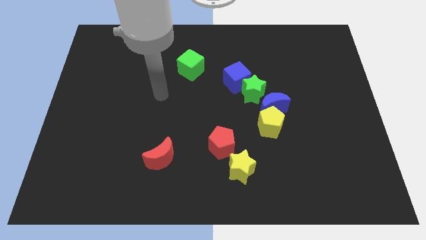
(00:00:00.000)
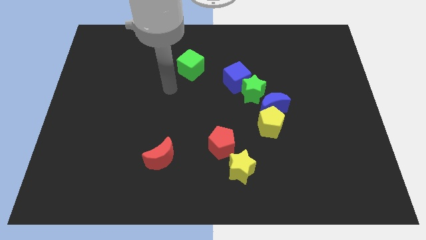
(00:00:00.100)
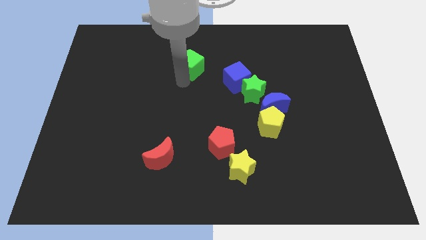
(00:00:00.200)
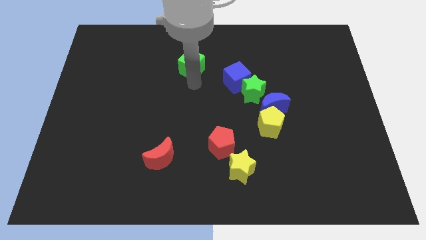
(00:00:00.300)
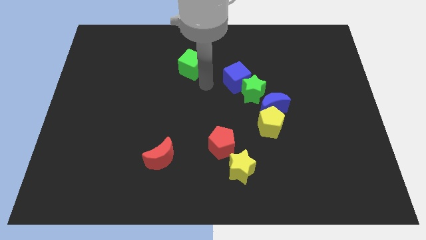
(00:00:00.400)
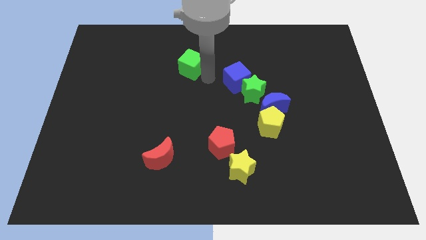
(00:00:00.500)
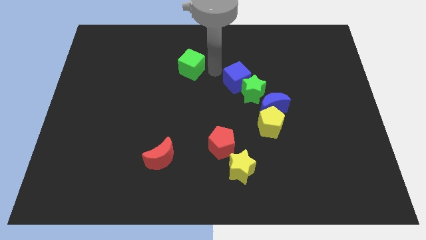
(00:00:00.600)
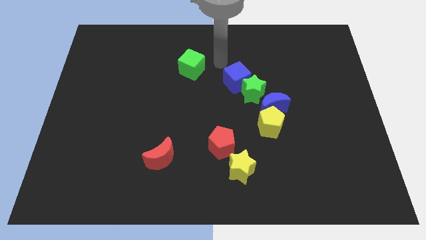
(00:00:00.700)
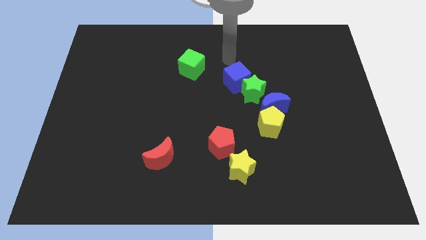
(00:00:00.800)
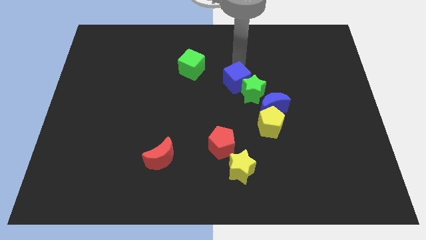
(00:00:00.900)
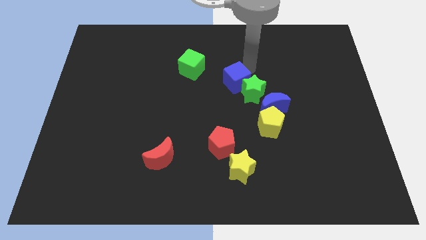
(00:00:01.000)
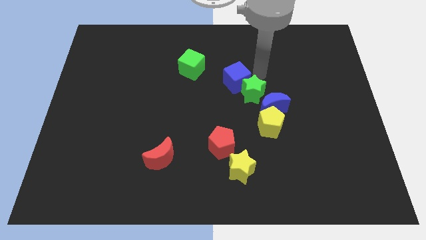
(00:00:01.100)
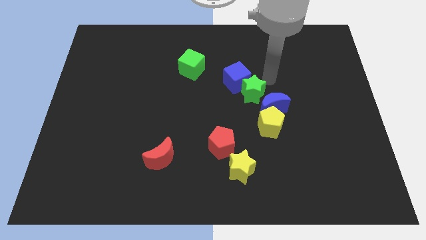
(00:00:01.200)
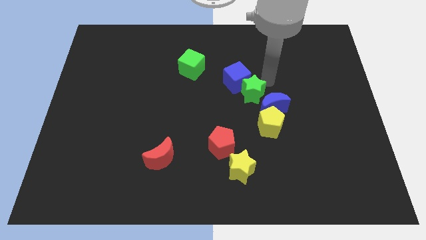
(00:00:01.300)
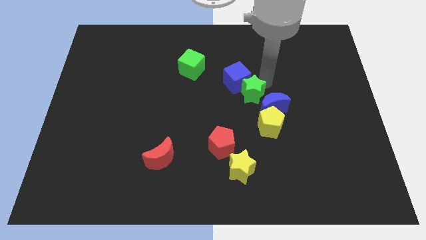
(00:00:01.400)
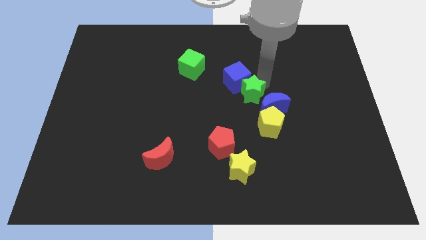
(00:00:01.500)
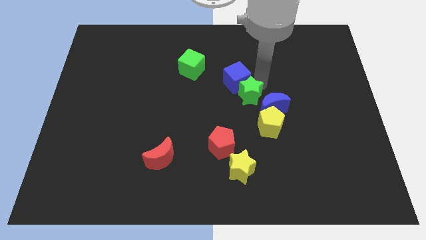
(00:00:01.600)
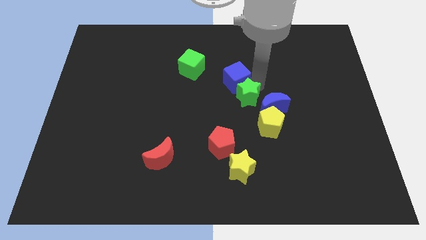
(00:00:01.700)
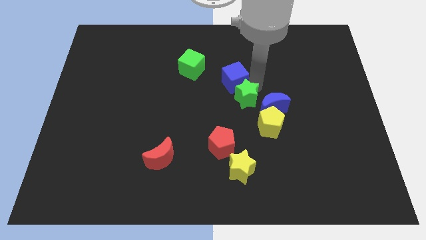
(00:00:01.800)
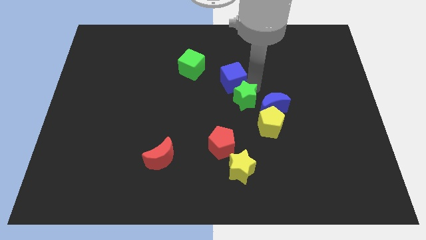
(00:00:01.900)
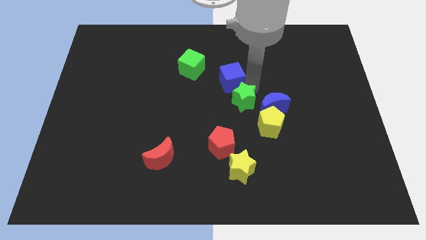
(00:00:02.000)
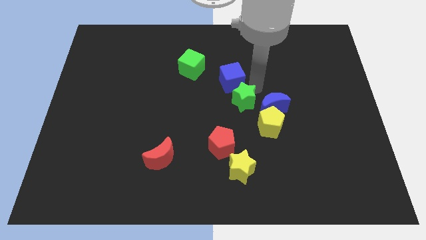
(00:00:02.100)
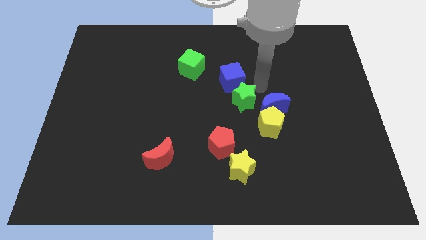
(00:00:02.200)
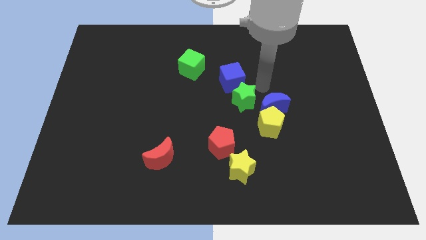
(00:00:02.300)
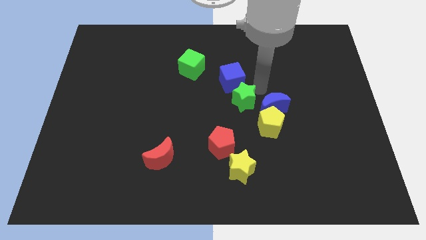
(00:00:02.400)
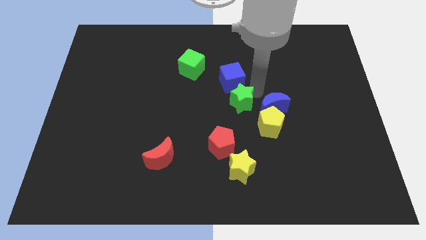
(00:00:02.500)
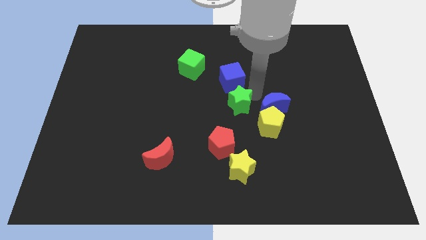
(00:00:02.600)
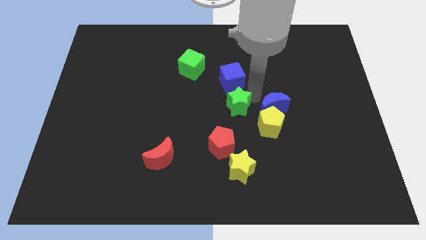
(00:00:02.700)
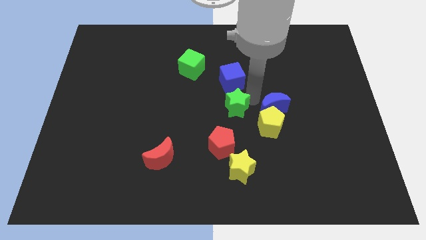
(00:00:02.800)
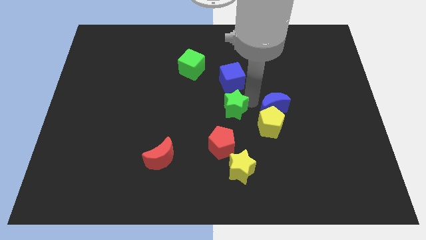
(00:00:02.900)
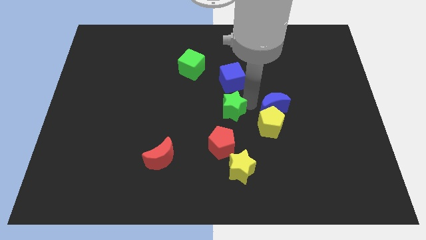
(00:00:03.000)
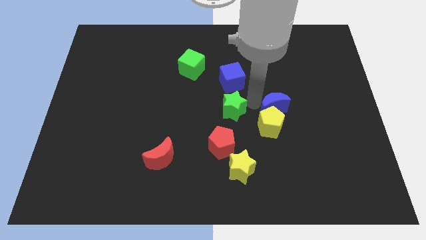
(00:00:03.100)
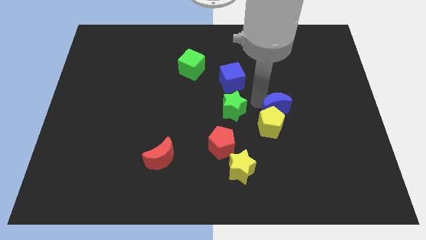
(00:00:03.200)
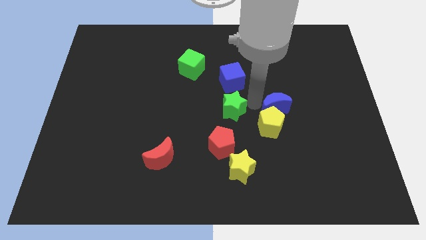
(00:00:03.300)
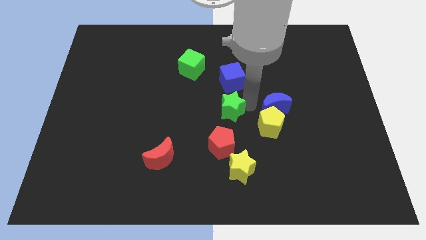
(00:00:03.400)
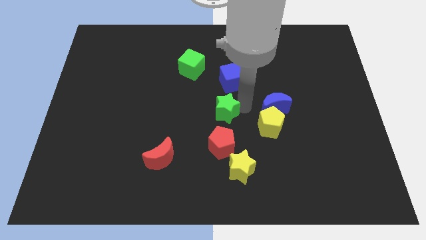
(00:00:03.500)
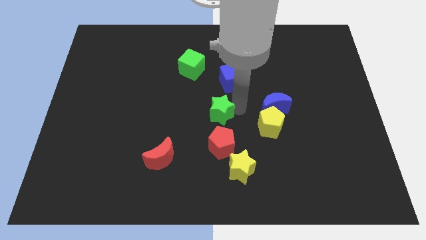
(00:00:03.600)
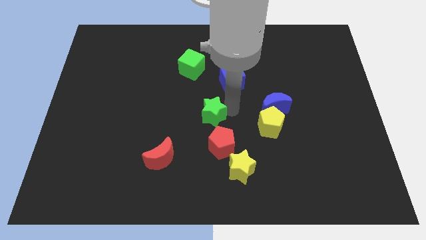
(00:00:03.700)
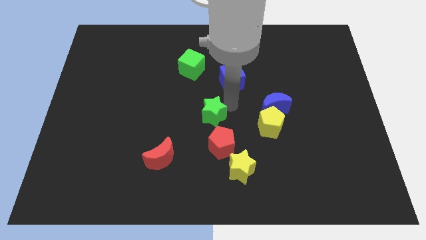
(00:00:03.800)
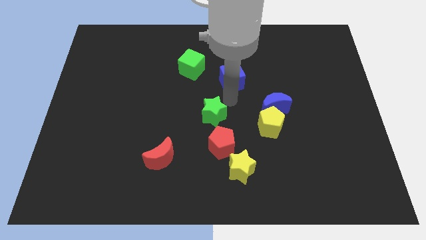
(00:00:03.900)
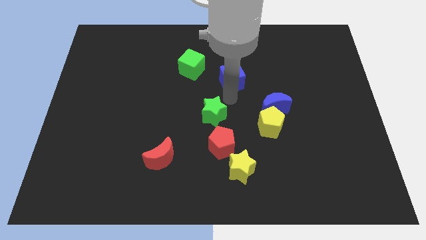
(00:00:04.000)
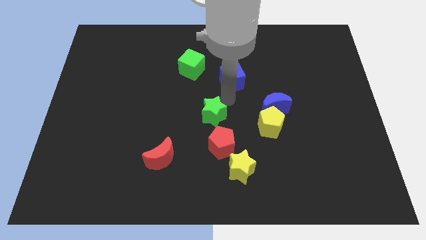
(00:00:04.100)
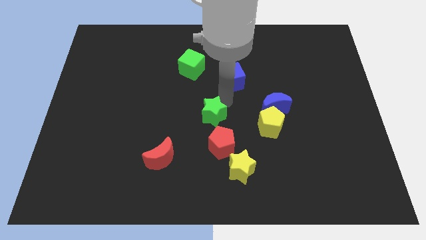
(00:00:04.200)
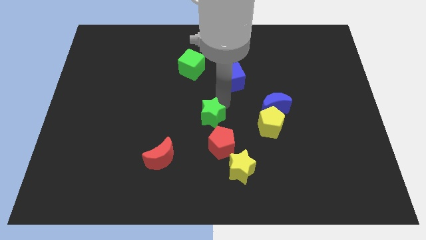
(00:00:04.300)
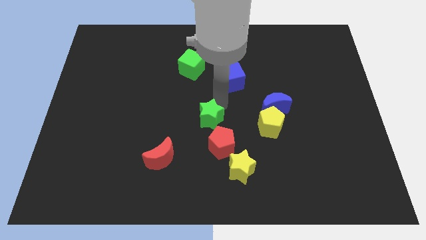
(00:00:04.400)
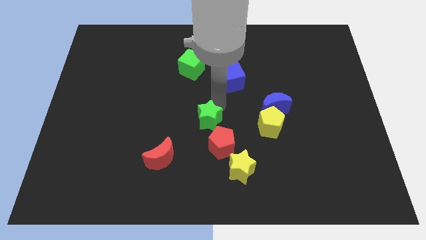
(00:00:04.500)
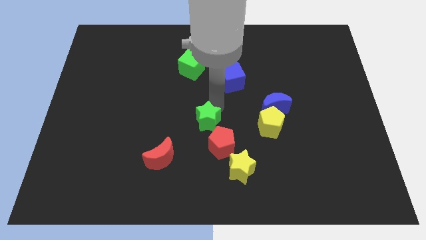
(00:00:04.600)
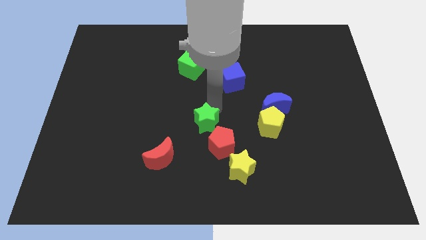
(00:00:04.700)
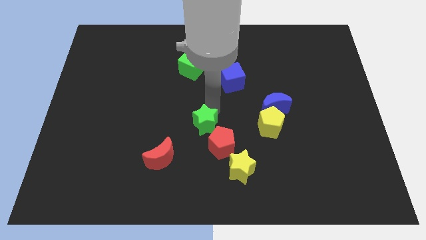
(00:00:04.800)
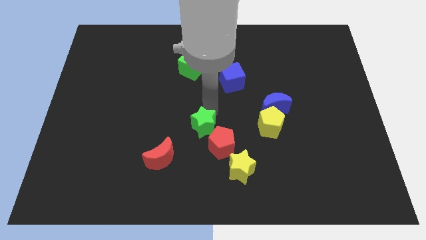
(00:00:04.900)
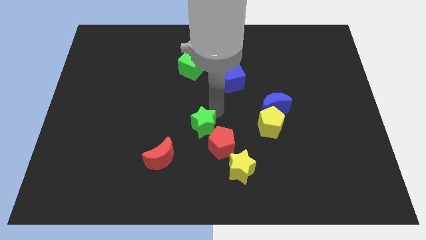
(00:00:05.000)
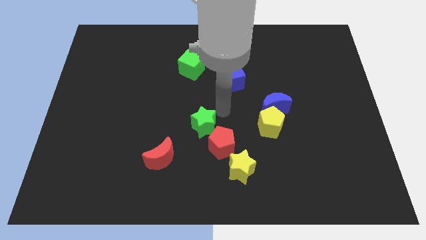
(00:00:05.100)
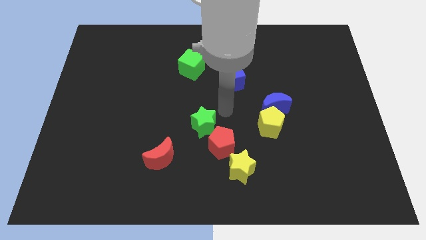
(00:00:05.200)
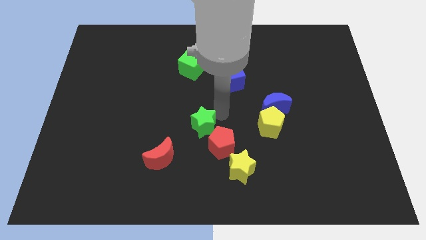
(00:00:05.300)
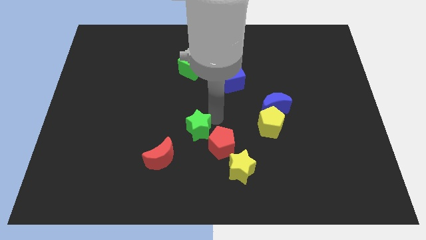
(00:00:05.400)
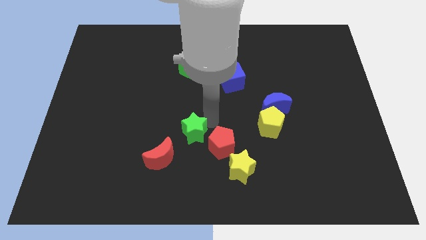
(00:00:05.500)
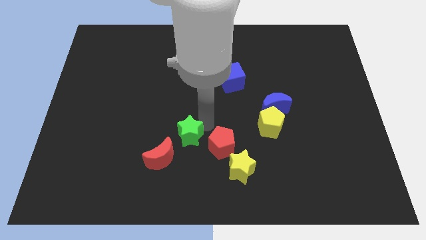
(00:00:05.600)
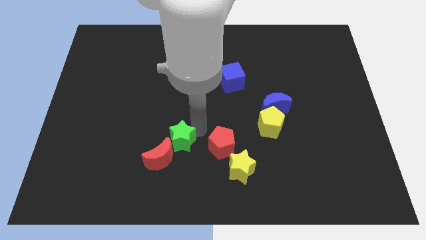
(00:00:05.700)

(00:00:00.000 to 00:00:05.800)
push the green star close to the red moon

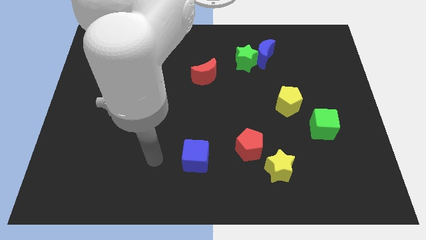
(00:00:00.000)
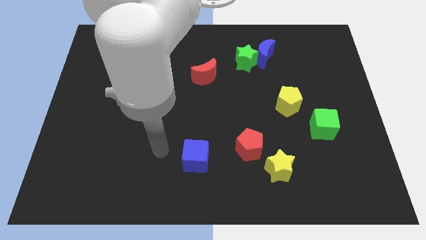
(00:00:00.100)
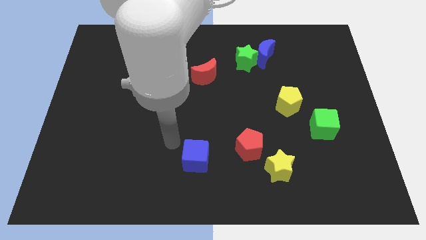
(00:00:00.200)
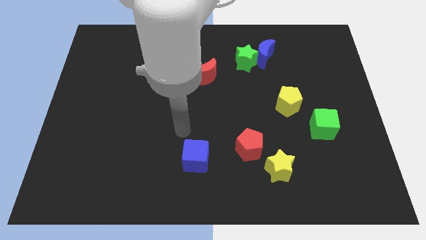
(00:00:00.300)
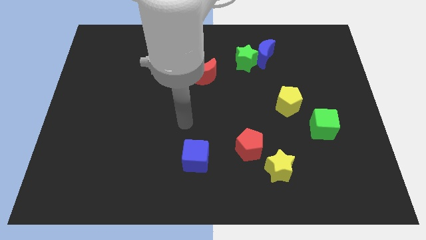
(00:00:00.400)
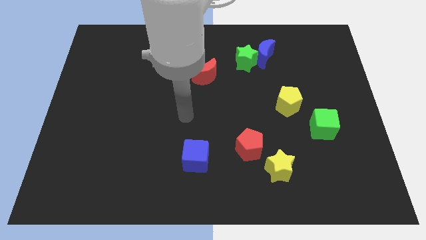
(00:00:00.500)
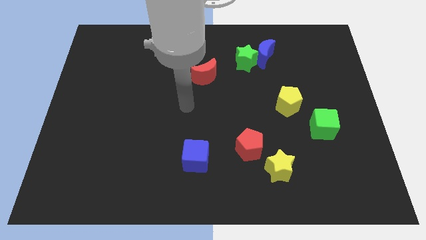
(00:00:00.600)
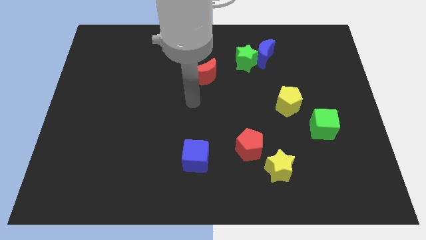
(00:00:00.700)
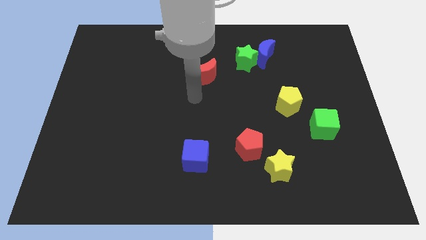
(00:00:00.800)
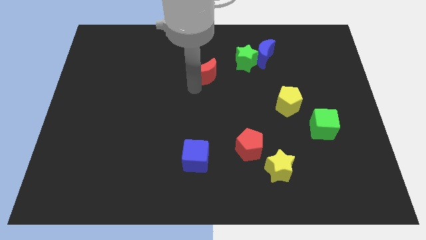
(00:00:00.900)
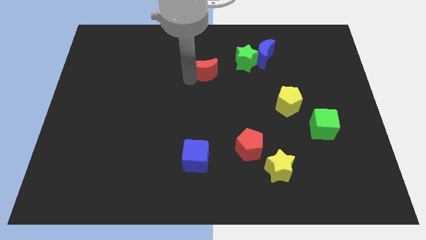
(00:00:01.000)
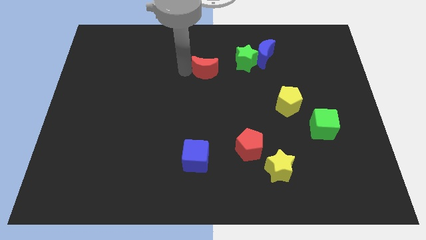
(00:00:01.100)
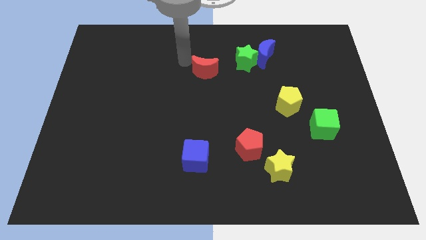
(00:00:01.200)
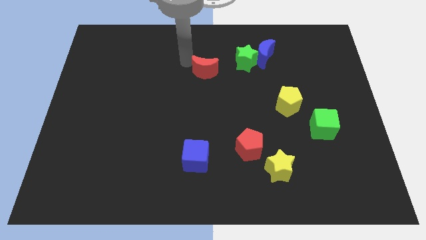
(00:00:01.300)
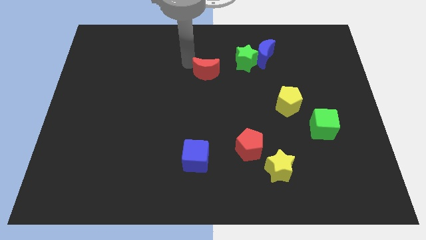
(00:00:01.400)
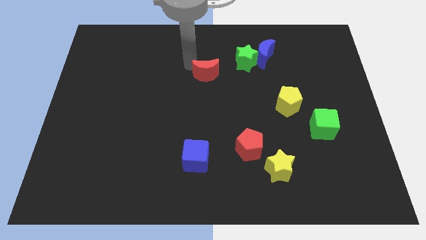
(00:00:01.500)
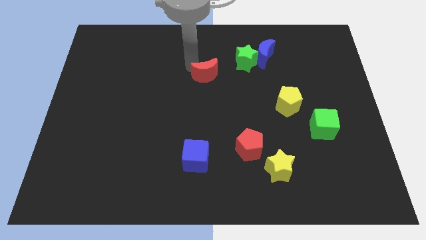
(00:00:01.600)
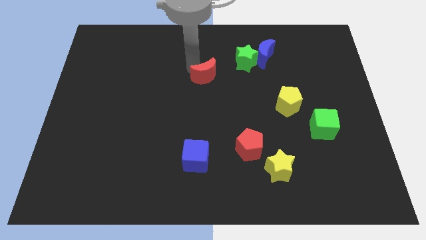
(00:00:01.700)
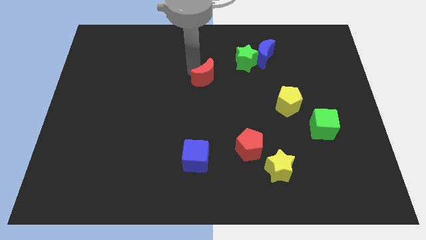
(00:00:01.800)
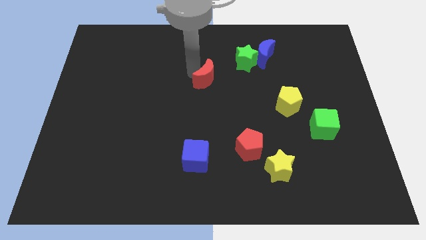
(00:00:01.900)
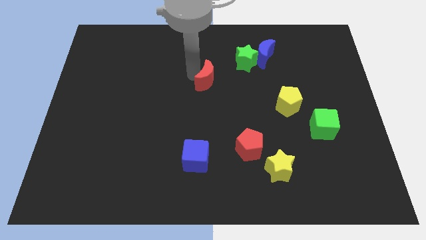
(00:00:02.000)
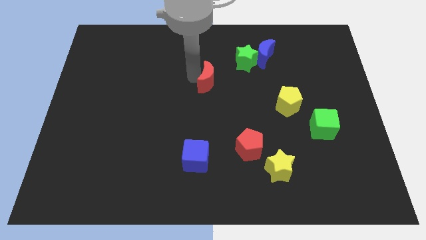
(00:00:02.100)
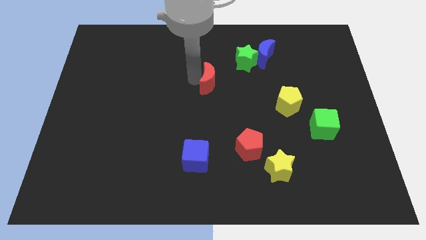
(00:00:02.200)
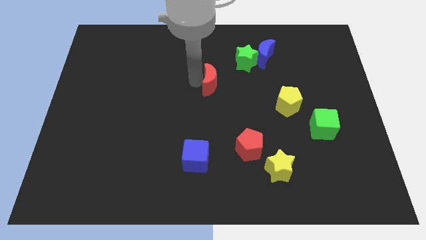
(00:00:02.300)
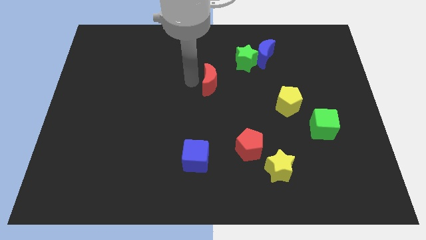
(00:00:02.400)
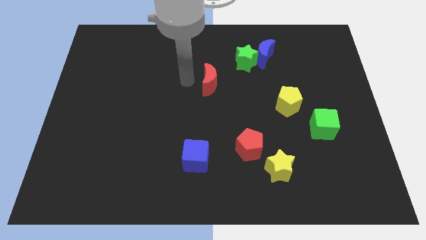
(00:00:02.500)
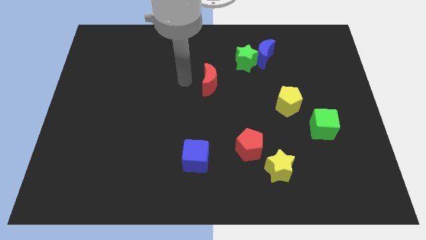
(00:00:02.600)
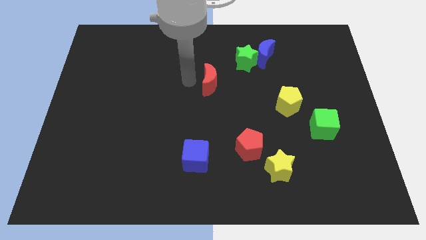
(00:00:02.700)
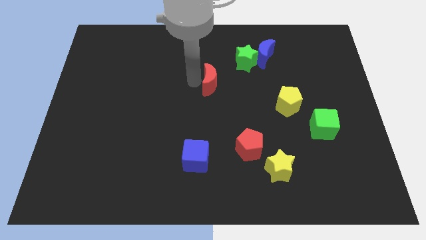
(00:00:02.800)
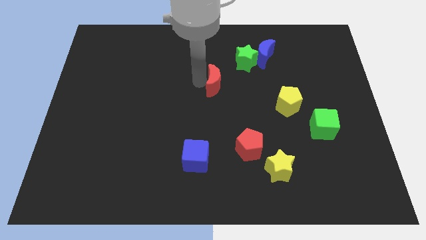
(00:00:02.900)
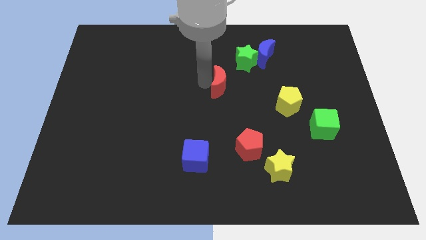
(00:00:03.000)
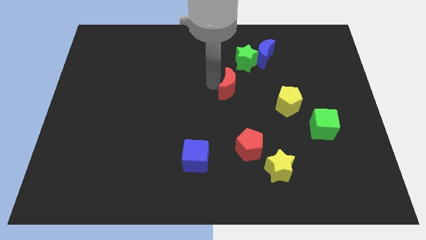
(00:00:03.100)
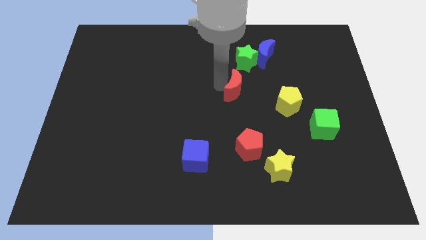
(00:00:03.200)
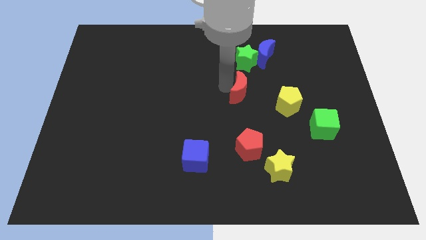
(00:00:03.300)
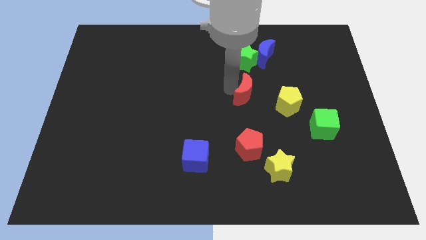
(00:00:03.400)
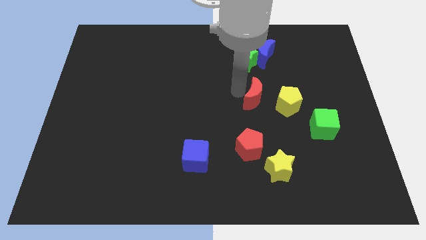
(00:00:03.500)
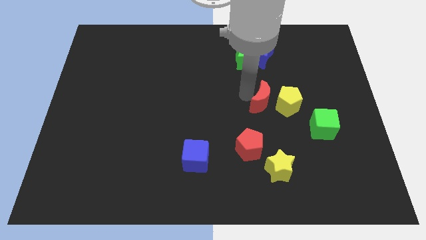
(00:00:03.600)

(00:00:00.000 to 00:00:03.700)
slide the red moon next to the yellow pentagon
